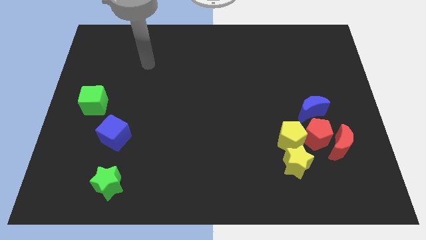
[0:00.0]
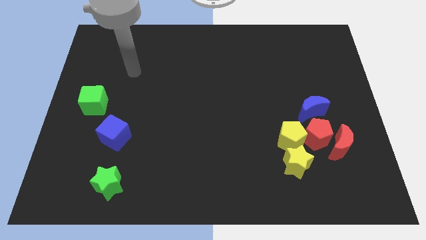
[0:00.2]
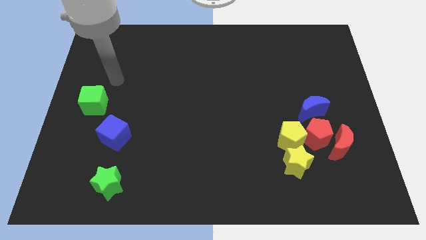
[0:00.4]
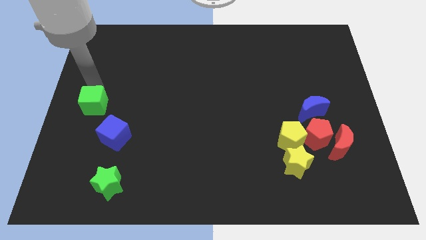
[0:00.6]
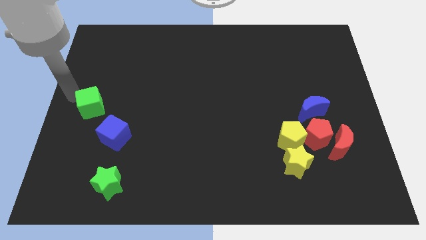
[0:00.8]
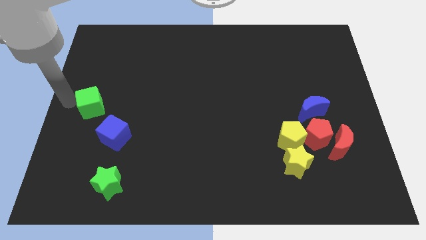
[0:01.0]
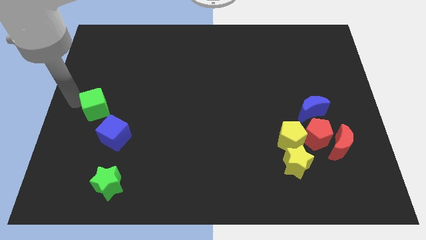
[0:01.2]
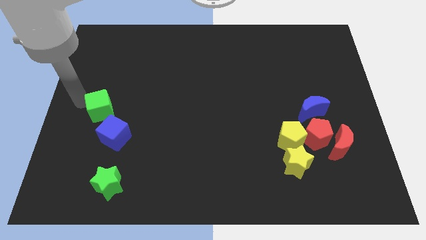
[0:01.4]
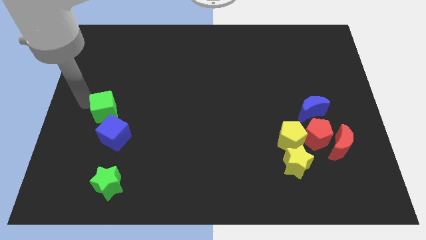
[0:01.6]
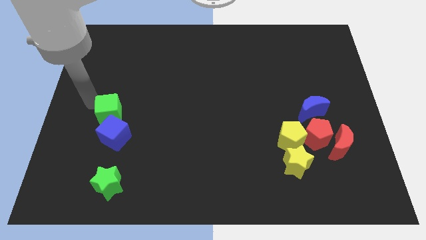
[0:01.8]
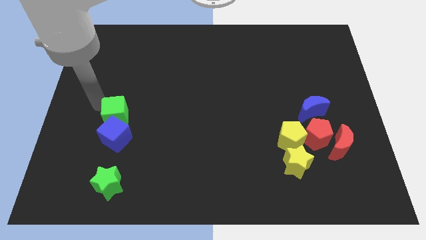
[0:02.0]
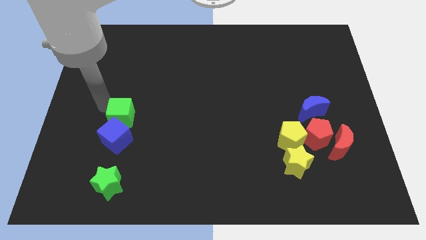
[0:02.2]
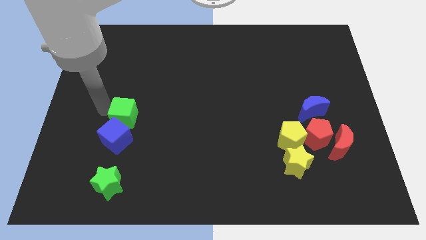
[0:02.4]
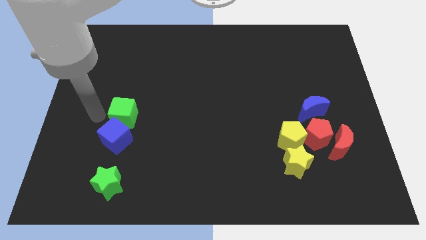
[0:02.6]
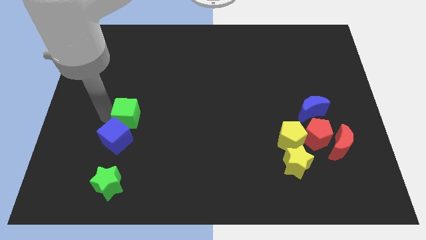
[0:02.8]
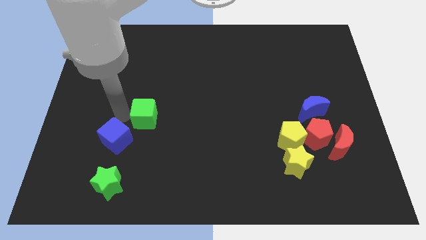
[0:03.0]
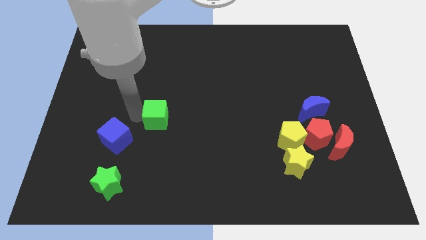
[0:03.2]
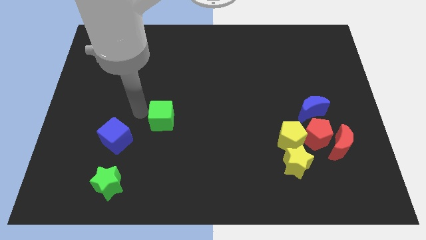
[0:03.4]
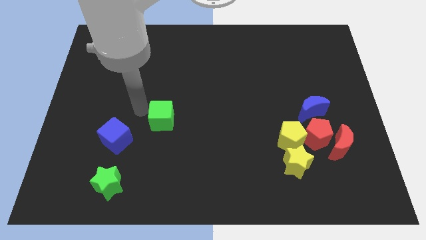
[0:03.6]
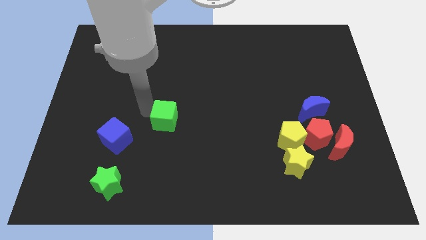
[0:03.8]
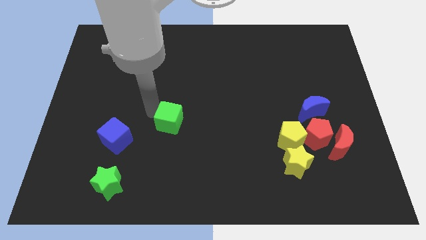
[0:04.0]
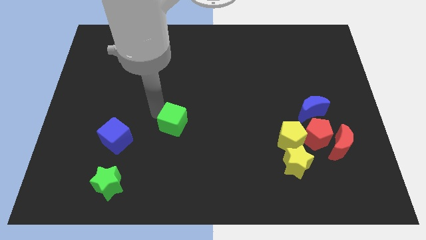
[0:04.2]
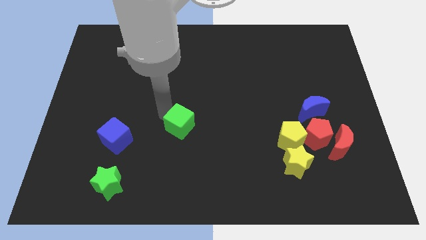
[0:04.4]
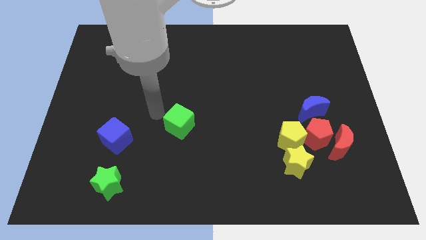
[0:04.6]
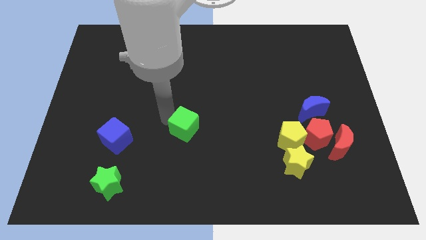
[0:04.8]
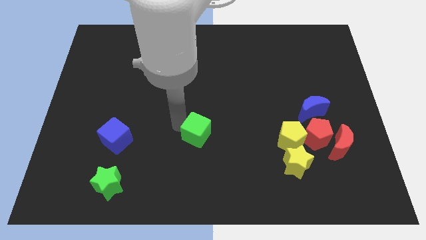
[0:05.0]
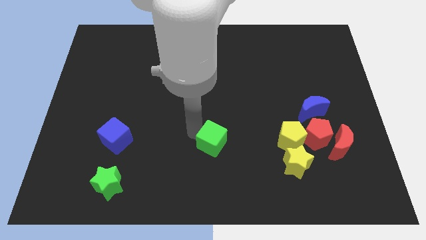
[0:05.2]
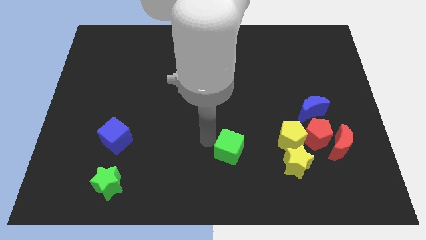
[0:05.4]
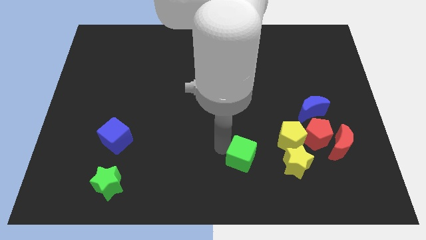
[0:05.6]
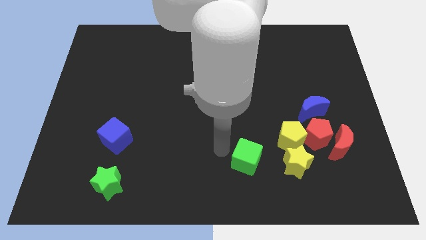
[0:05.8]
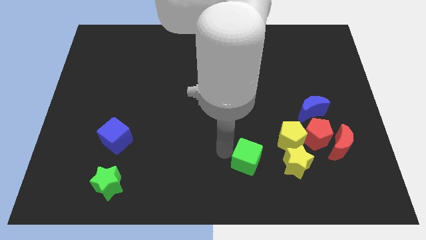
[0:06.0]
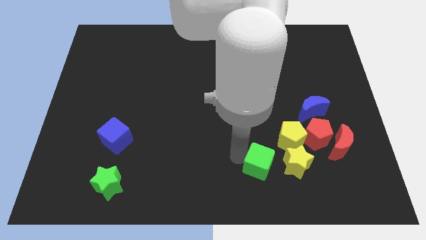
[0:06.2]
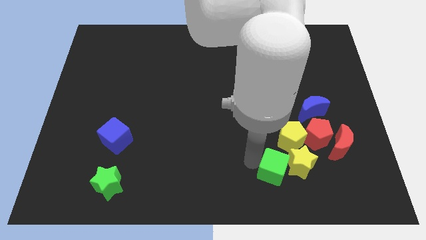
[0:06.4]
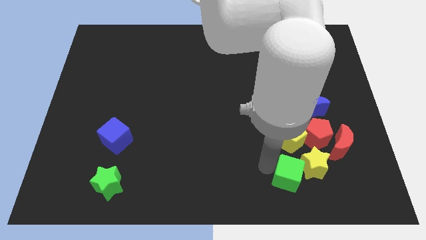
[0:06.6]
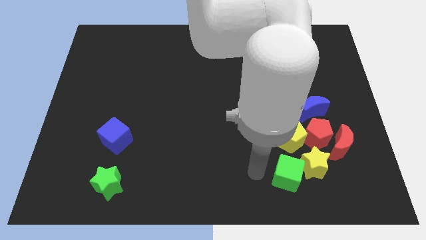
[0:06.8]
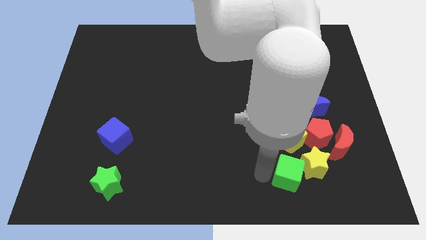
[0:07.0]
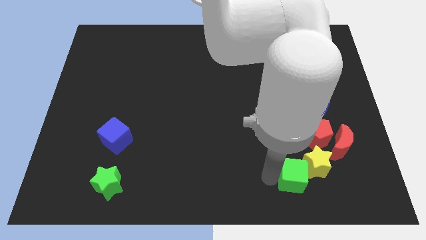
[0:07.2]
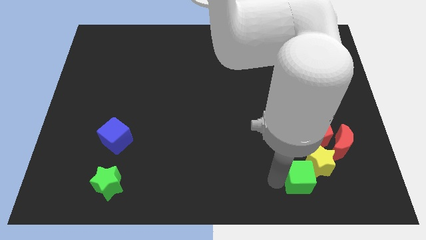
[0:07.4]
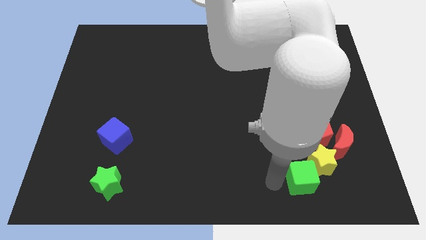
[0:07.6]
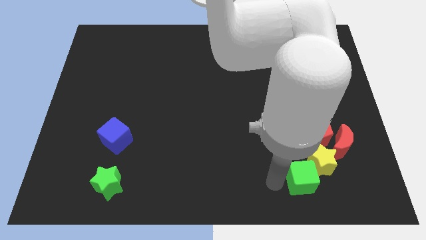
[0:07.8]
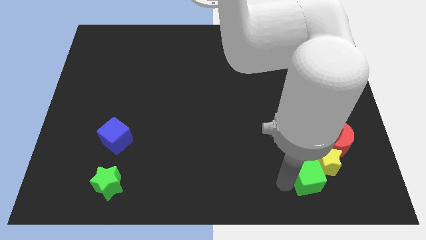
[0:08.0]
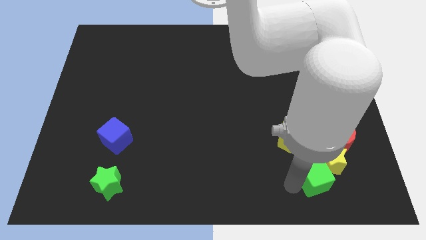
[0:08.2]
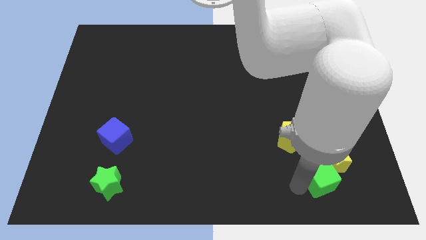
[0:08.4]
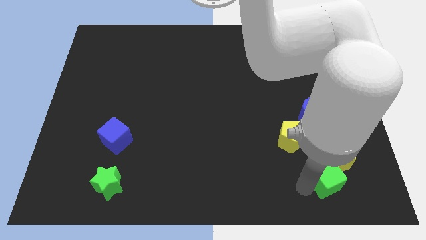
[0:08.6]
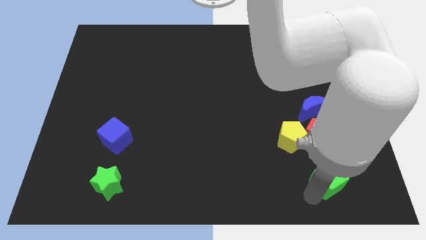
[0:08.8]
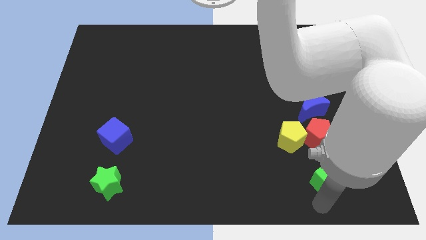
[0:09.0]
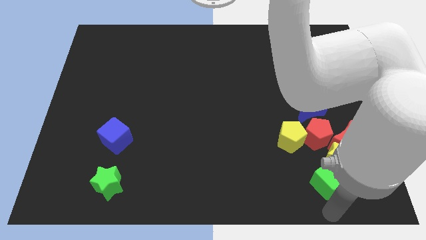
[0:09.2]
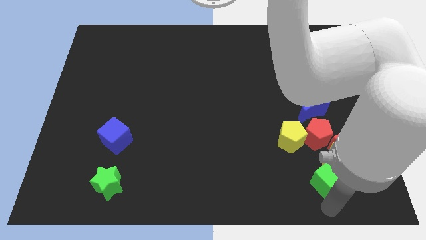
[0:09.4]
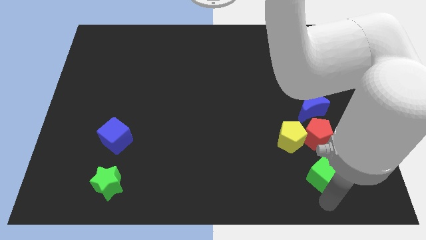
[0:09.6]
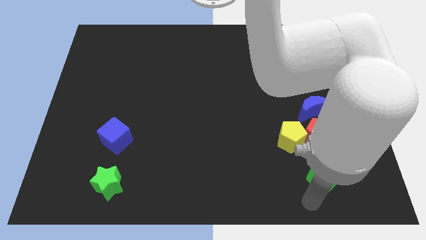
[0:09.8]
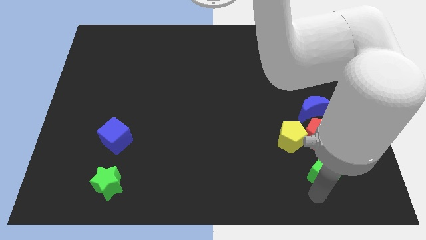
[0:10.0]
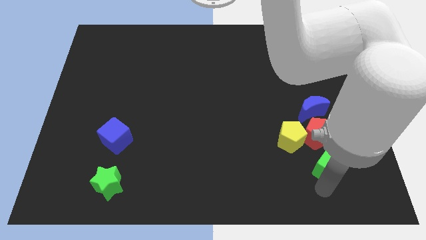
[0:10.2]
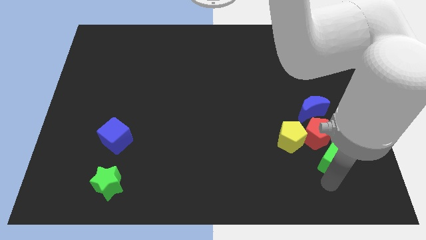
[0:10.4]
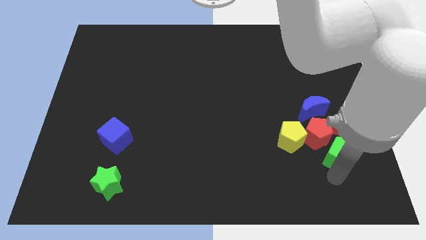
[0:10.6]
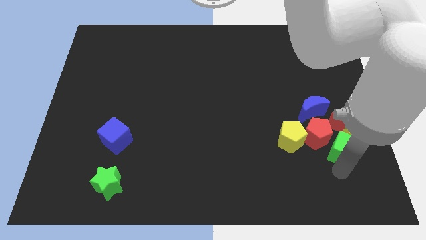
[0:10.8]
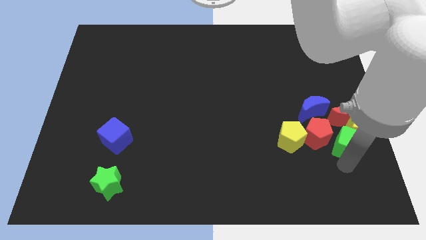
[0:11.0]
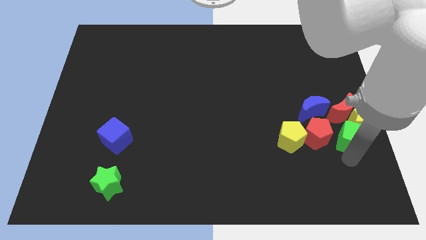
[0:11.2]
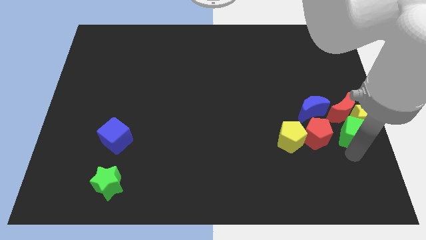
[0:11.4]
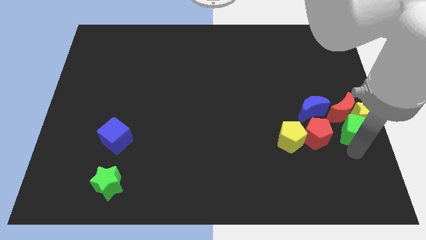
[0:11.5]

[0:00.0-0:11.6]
move the green cube towards the red moon

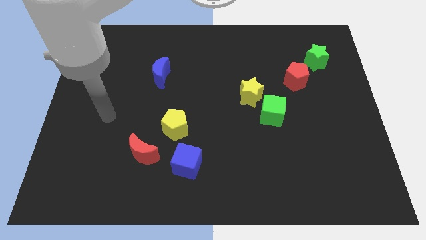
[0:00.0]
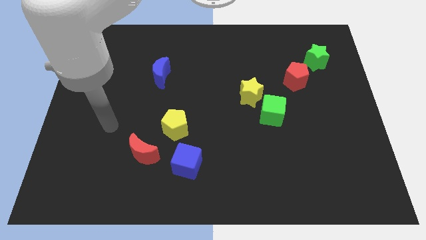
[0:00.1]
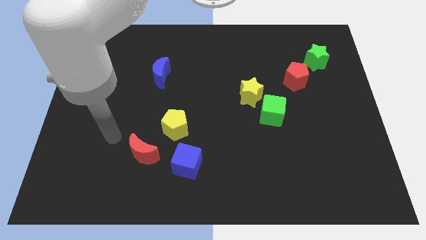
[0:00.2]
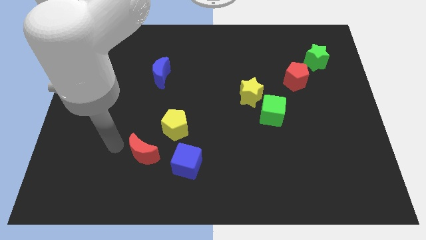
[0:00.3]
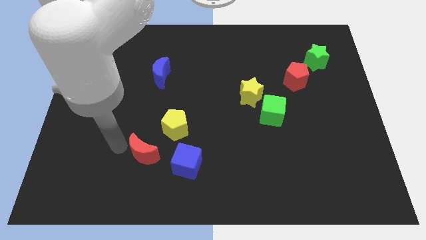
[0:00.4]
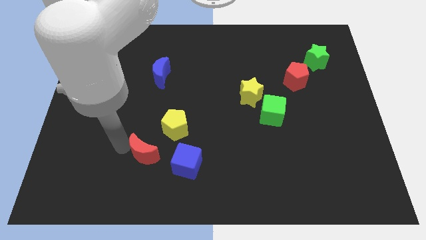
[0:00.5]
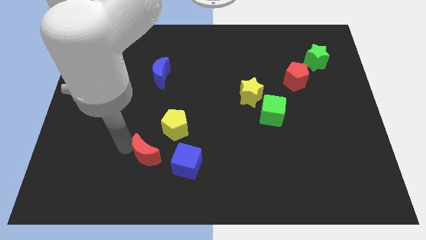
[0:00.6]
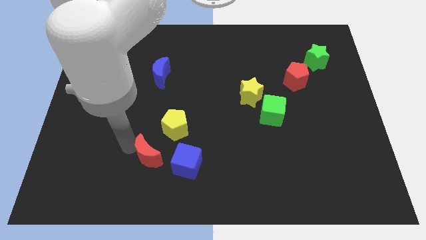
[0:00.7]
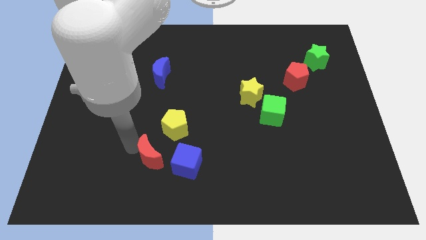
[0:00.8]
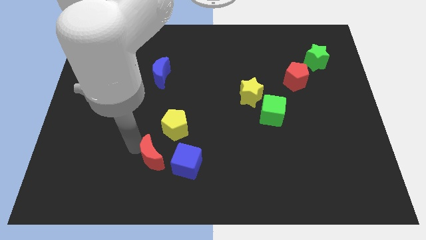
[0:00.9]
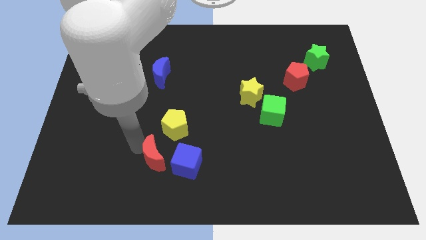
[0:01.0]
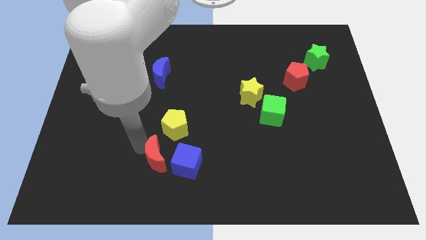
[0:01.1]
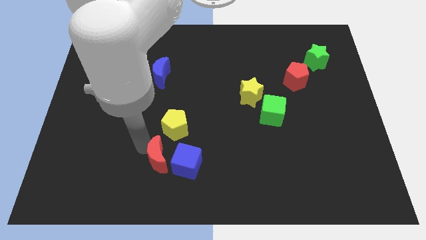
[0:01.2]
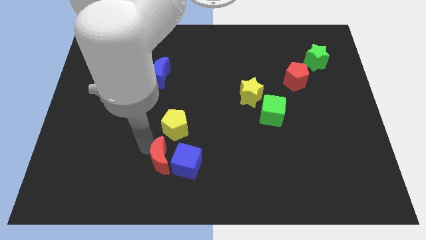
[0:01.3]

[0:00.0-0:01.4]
slide the red moon to the blue cube
